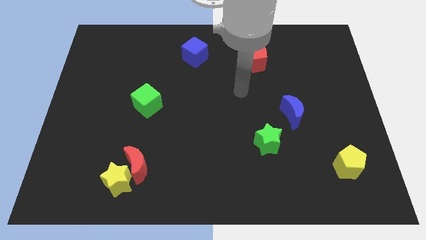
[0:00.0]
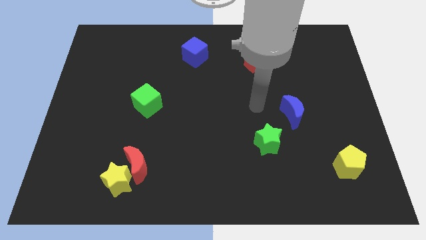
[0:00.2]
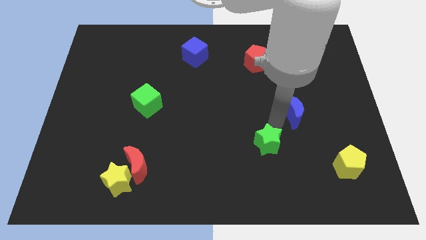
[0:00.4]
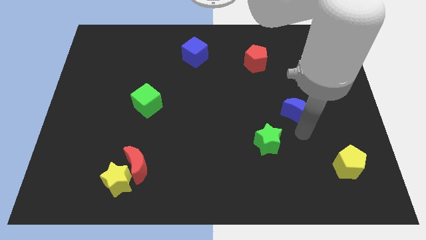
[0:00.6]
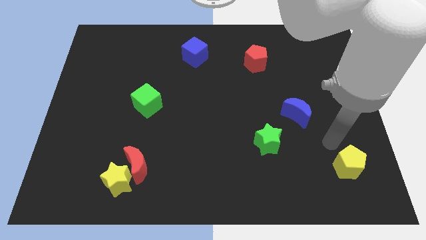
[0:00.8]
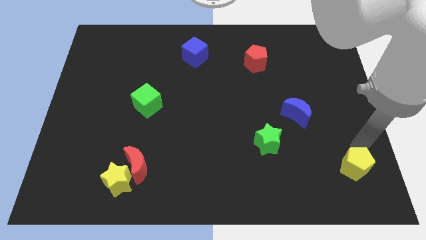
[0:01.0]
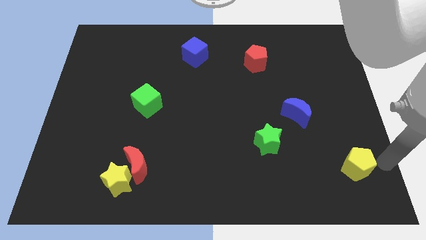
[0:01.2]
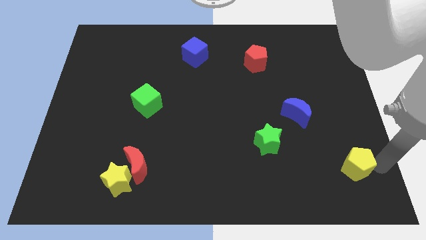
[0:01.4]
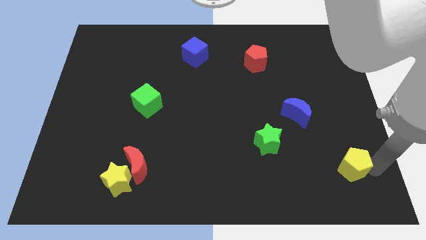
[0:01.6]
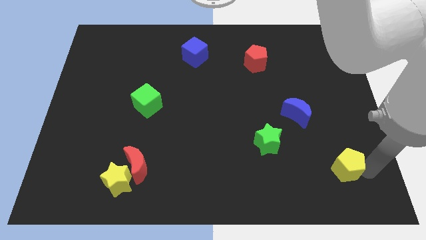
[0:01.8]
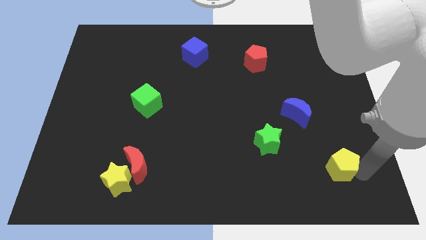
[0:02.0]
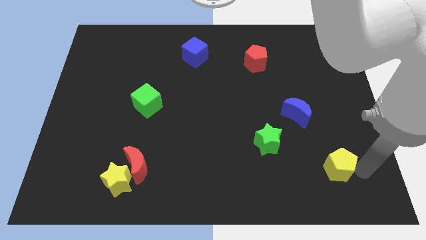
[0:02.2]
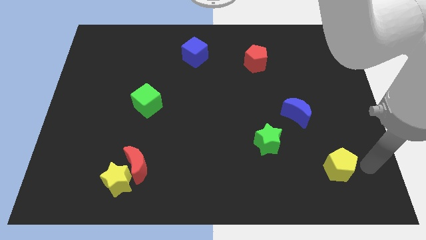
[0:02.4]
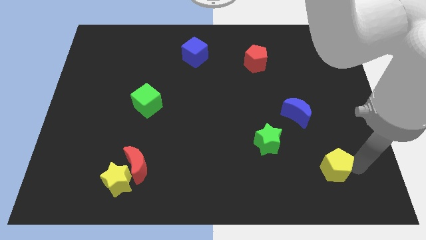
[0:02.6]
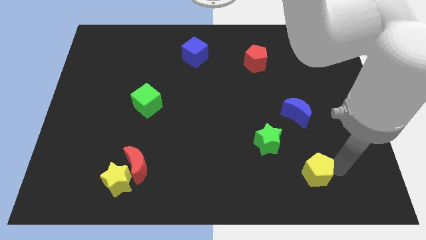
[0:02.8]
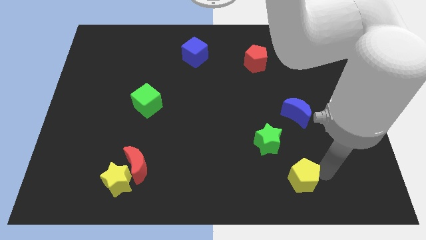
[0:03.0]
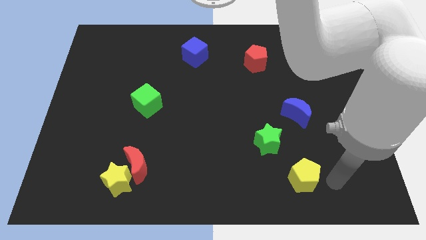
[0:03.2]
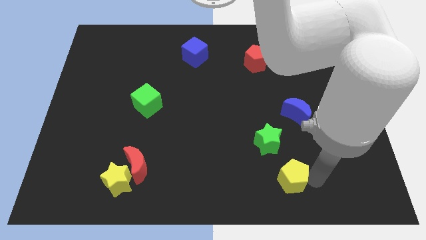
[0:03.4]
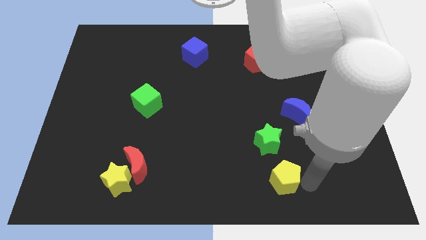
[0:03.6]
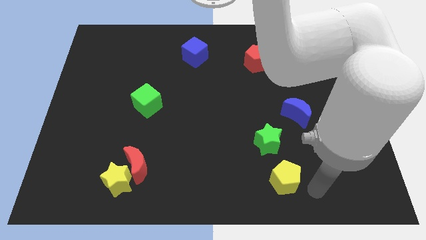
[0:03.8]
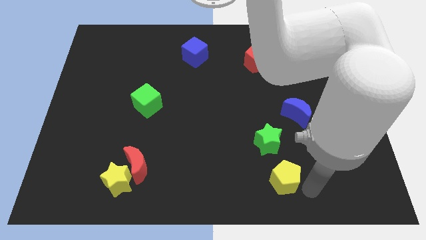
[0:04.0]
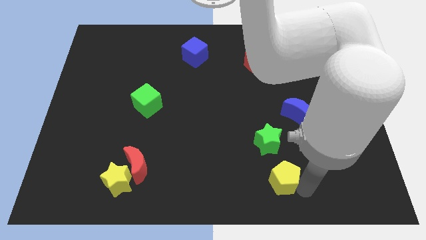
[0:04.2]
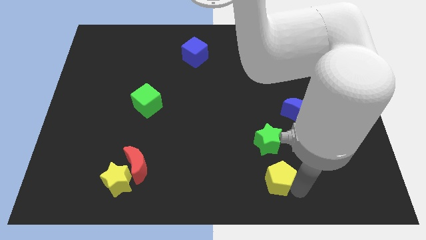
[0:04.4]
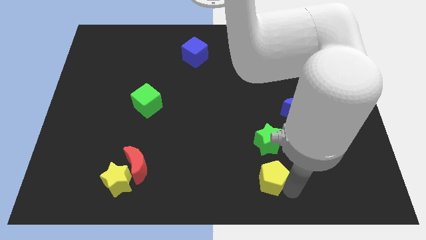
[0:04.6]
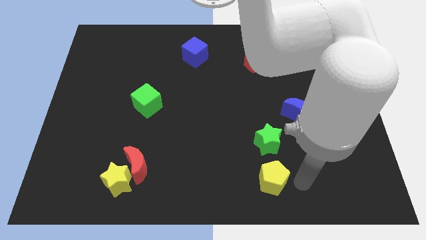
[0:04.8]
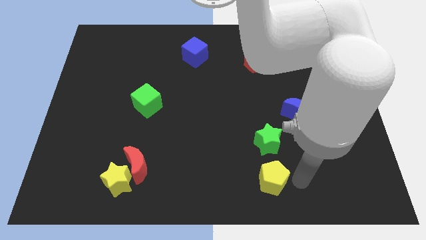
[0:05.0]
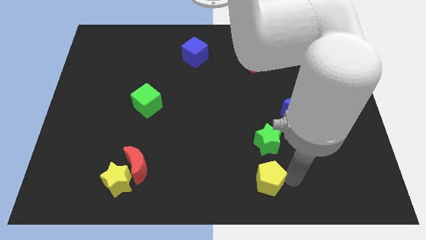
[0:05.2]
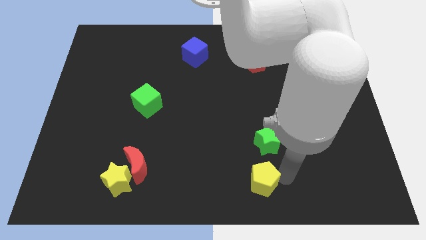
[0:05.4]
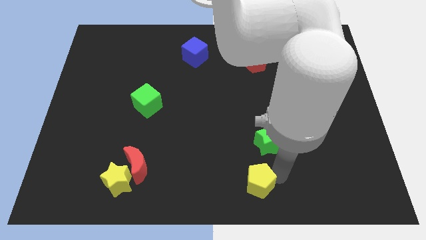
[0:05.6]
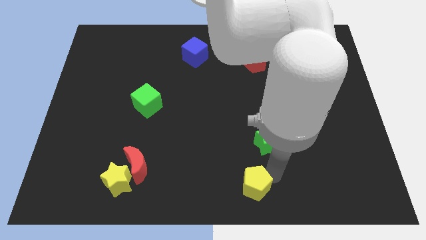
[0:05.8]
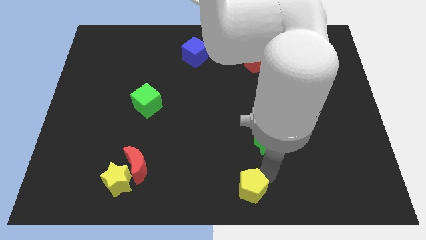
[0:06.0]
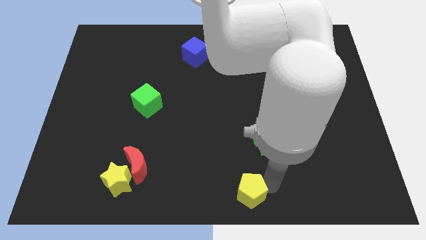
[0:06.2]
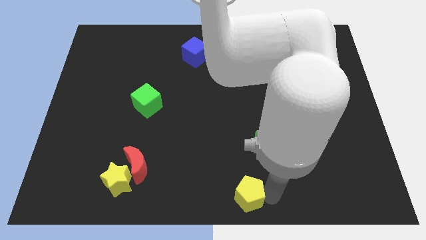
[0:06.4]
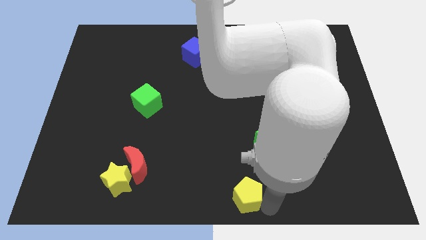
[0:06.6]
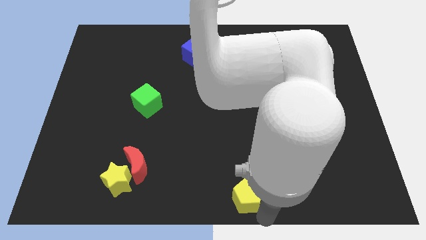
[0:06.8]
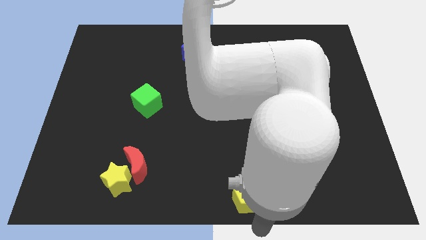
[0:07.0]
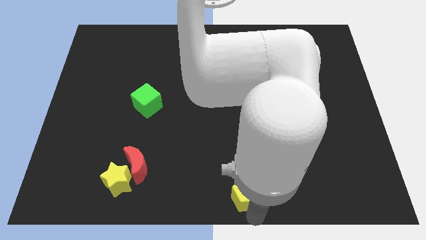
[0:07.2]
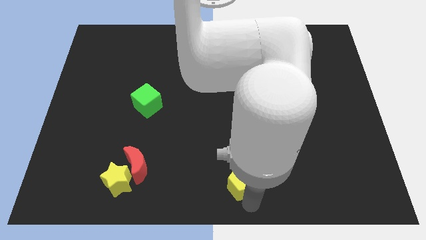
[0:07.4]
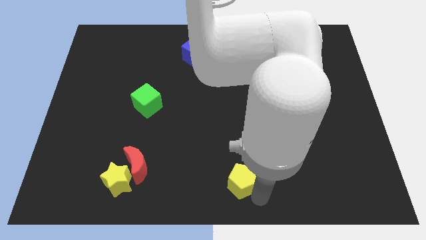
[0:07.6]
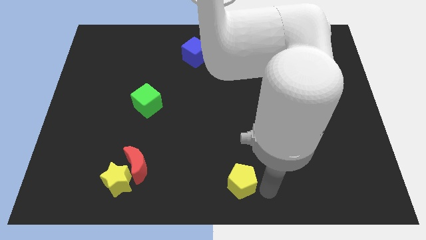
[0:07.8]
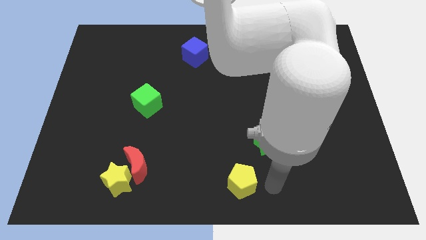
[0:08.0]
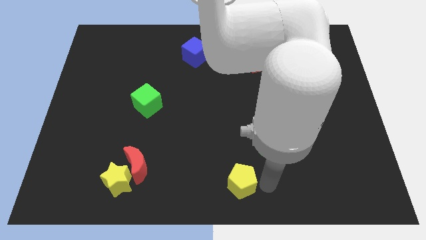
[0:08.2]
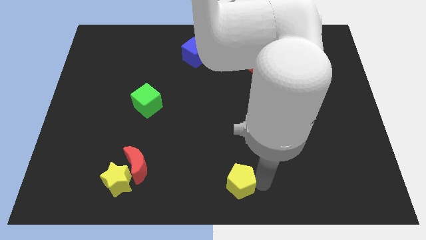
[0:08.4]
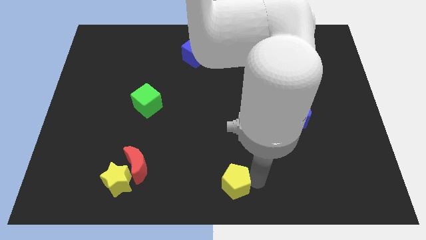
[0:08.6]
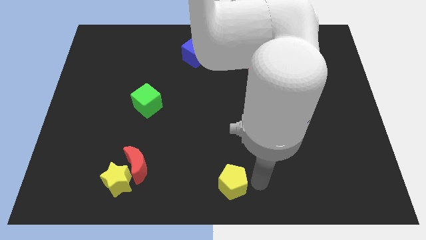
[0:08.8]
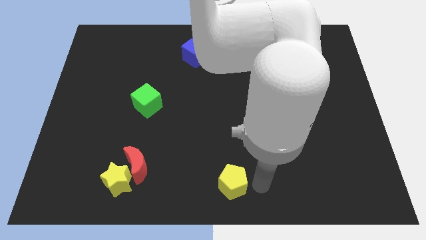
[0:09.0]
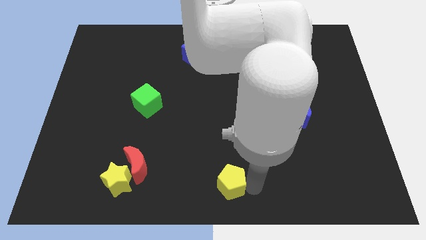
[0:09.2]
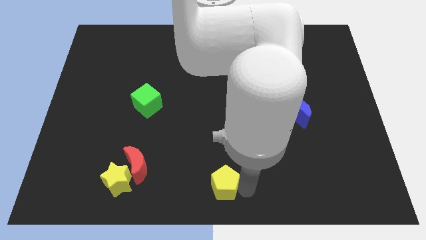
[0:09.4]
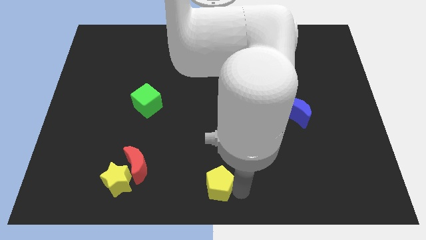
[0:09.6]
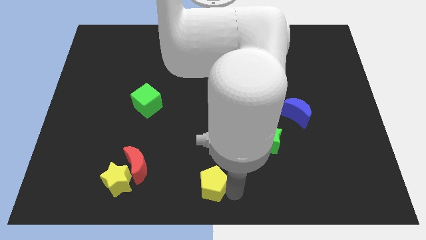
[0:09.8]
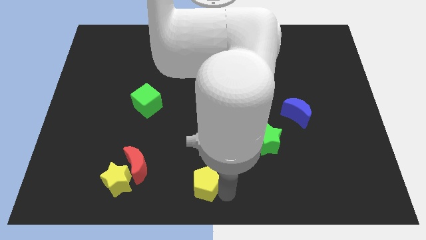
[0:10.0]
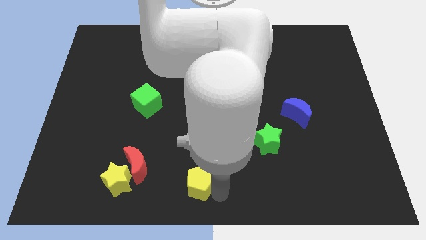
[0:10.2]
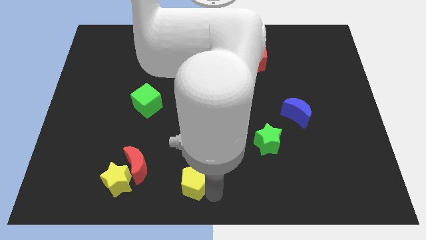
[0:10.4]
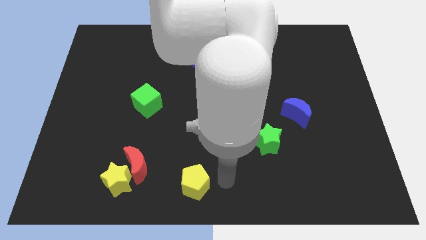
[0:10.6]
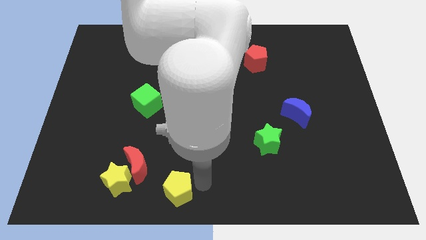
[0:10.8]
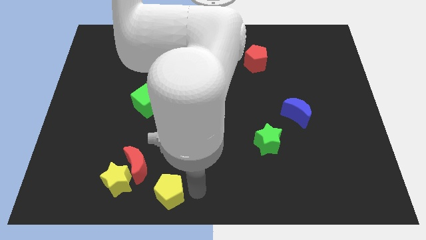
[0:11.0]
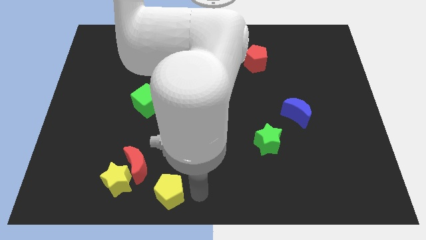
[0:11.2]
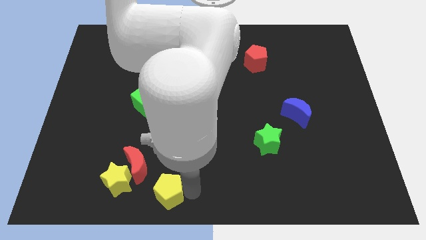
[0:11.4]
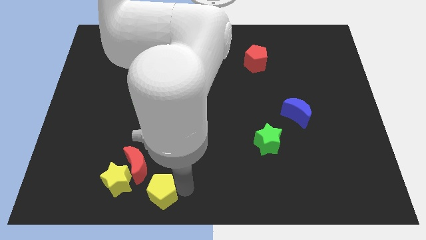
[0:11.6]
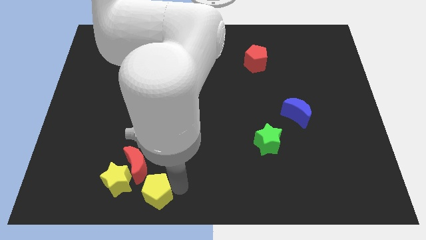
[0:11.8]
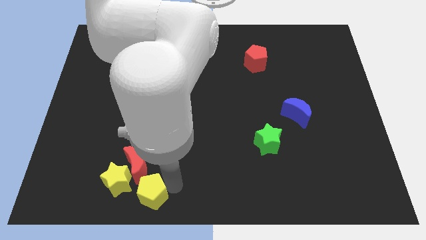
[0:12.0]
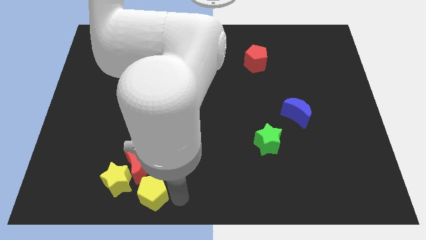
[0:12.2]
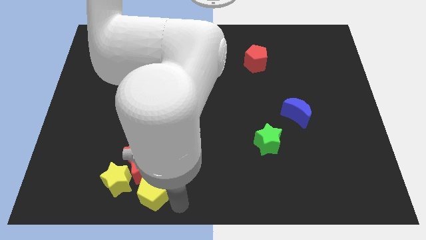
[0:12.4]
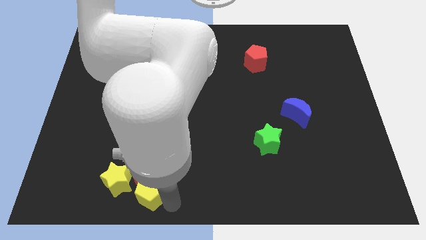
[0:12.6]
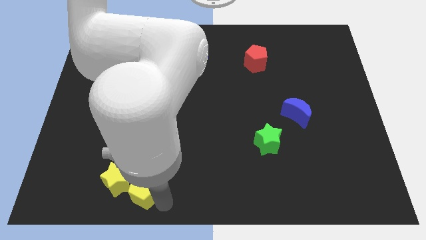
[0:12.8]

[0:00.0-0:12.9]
slide the yellow pentagon next to the yellow star

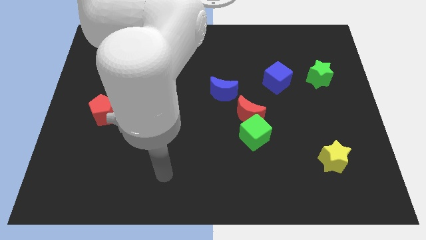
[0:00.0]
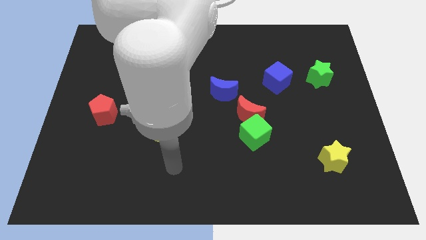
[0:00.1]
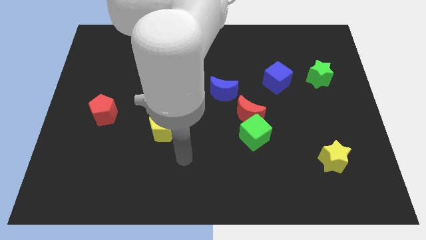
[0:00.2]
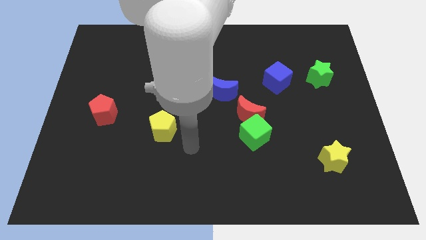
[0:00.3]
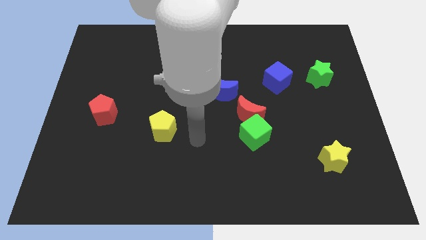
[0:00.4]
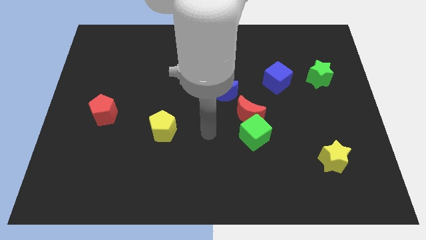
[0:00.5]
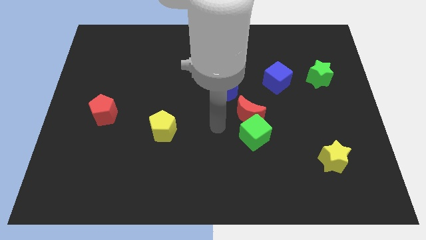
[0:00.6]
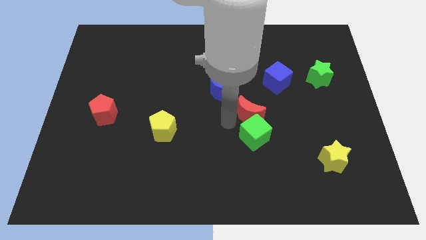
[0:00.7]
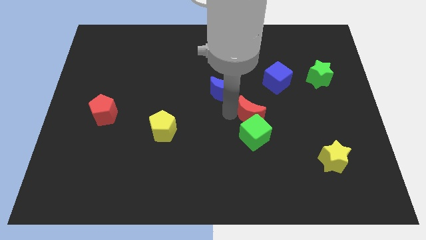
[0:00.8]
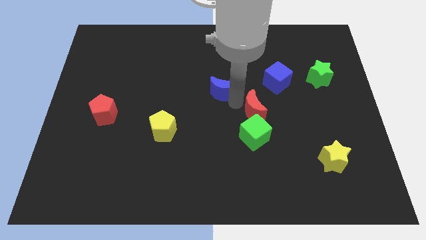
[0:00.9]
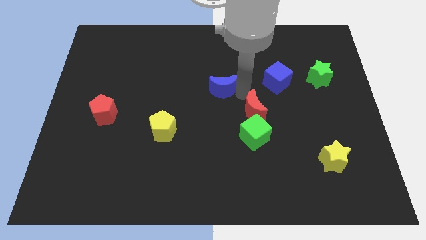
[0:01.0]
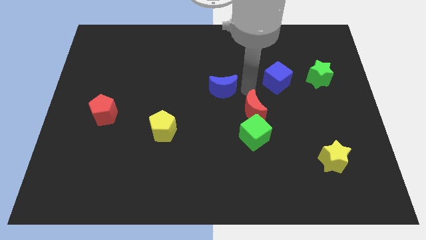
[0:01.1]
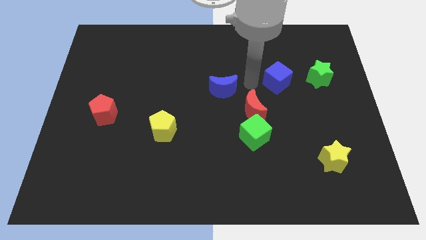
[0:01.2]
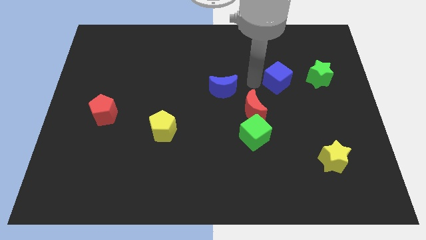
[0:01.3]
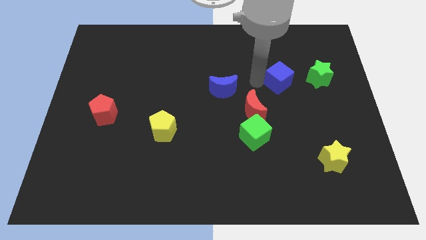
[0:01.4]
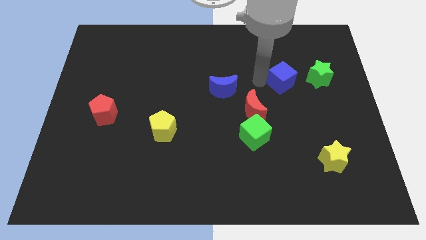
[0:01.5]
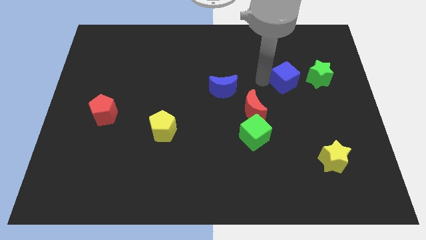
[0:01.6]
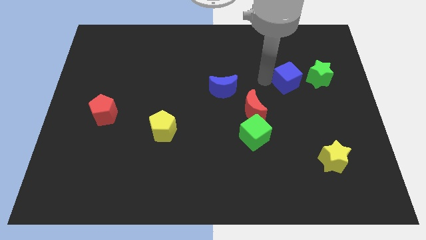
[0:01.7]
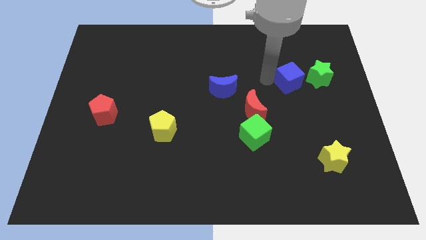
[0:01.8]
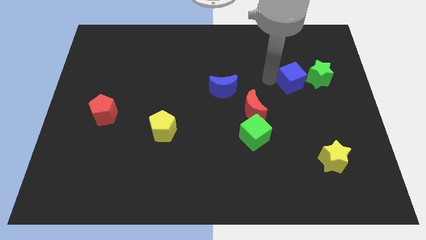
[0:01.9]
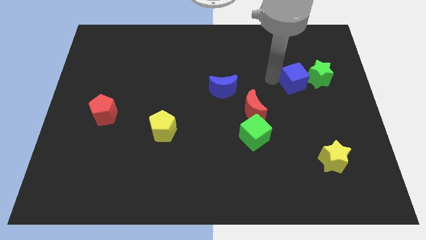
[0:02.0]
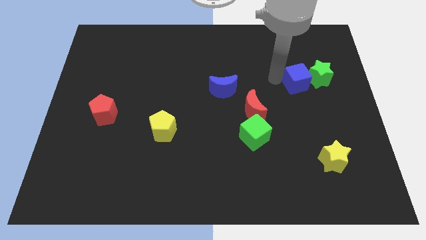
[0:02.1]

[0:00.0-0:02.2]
slide the blue cube towards the green star
